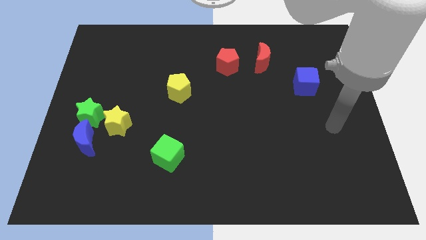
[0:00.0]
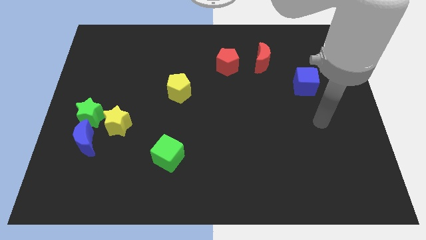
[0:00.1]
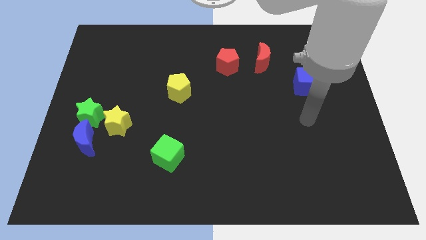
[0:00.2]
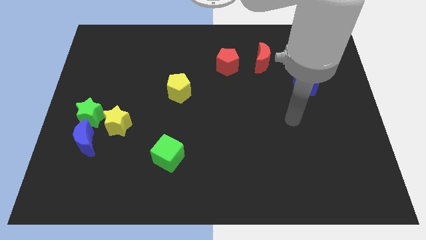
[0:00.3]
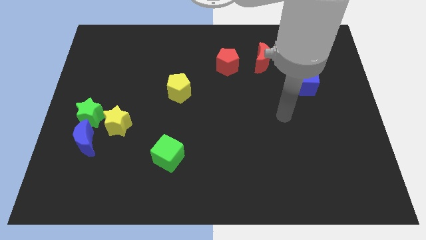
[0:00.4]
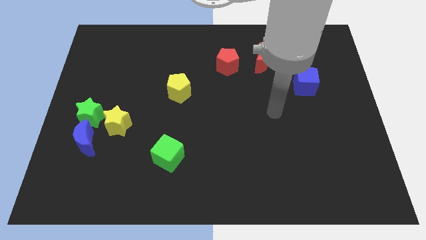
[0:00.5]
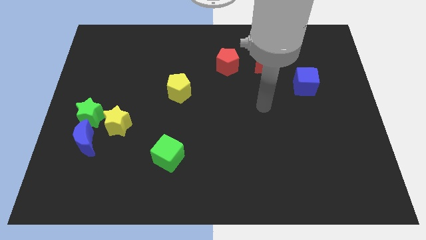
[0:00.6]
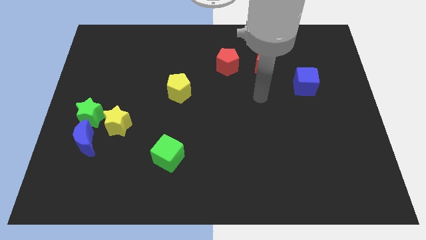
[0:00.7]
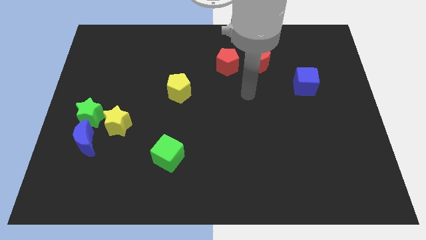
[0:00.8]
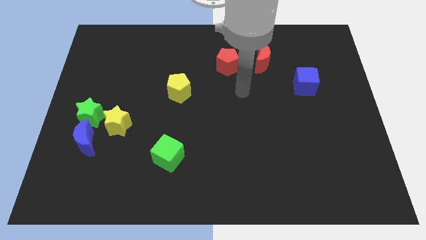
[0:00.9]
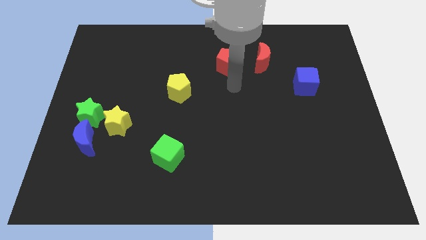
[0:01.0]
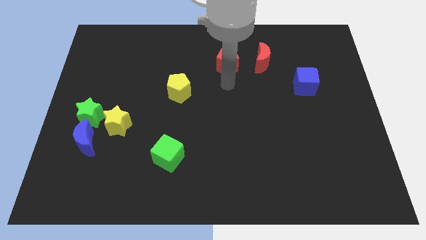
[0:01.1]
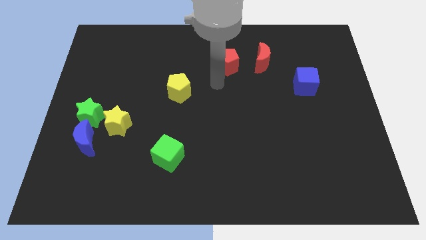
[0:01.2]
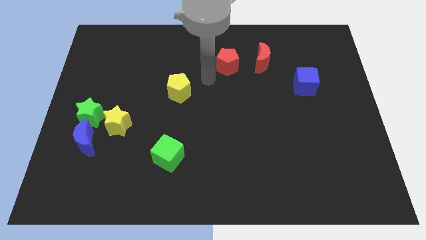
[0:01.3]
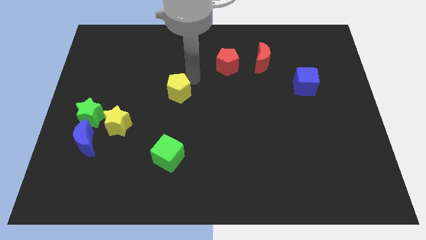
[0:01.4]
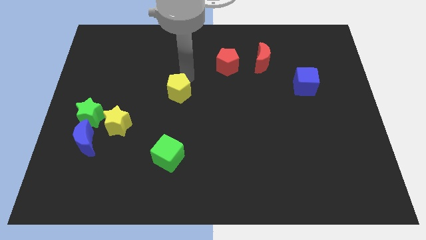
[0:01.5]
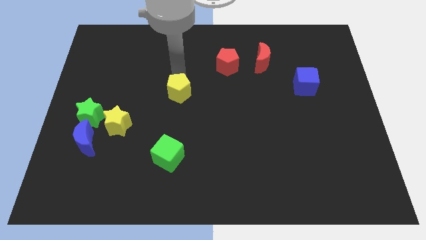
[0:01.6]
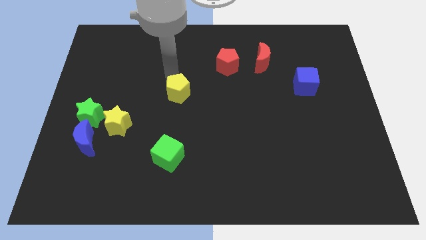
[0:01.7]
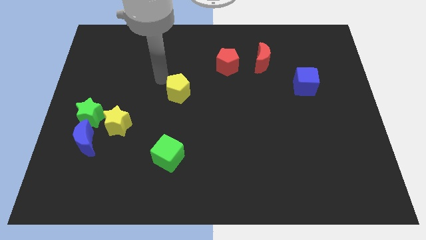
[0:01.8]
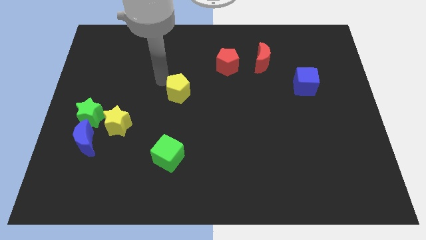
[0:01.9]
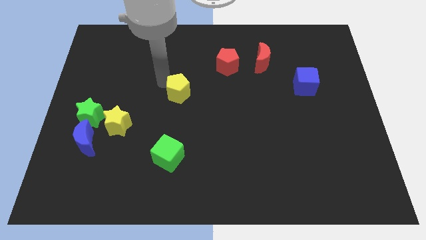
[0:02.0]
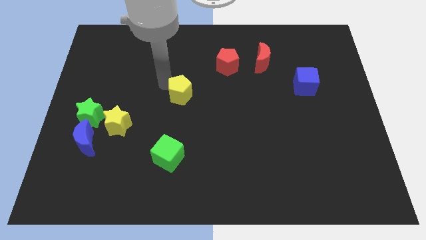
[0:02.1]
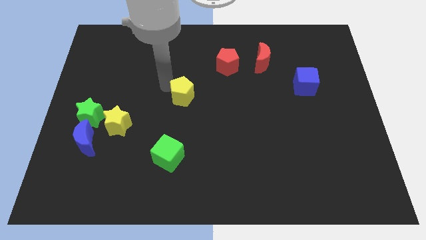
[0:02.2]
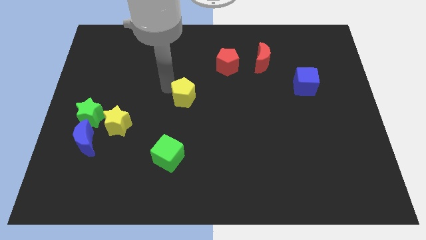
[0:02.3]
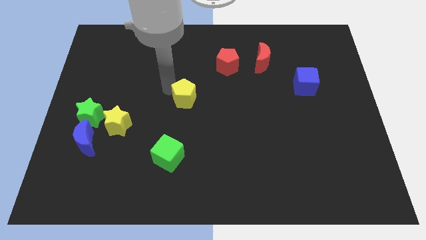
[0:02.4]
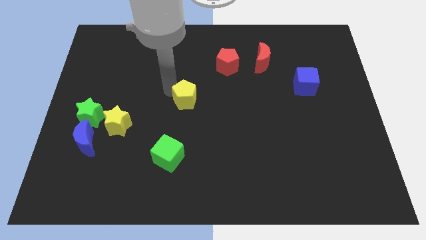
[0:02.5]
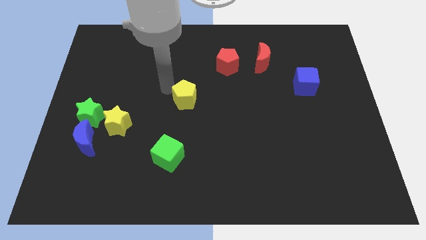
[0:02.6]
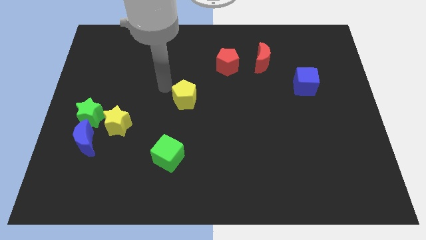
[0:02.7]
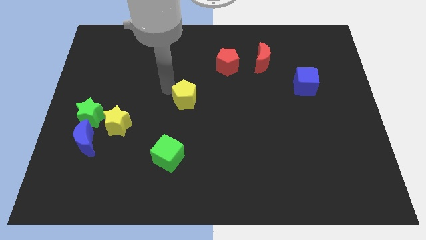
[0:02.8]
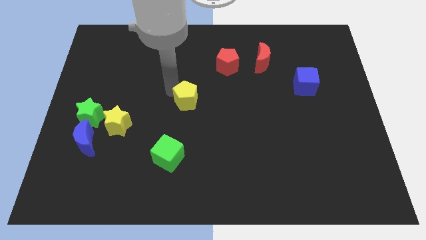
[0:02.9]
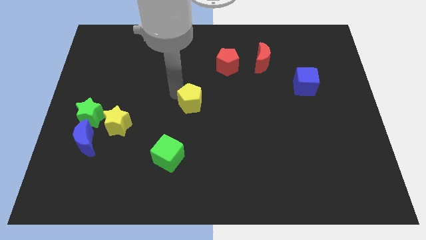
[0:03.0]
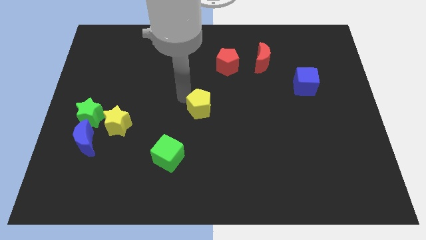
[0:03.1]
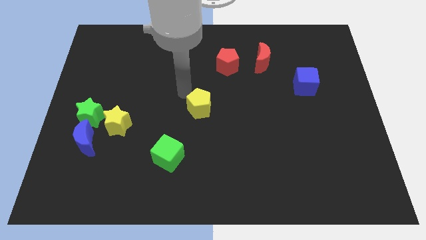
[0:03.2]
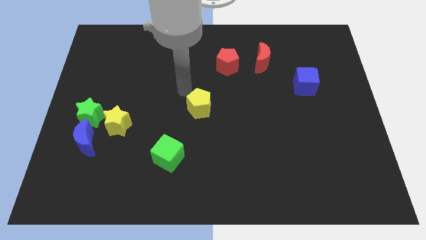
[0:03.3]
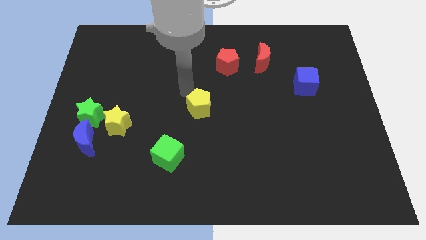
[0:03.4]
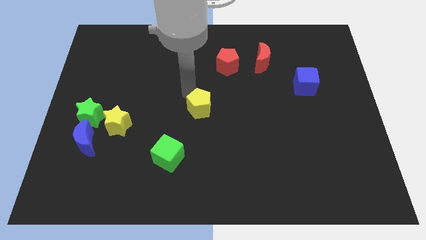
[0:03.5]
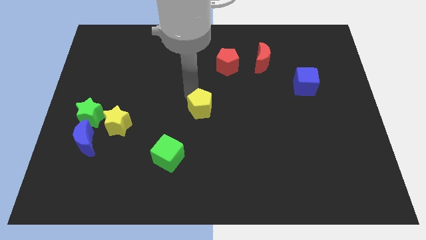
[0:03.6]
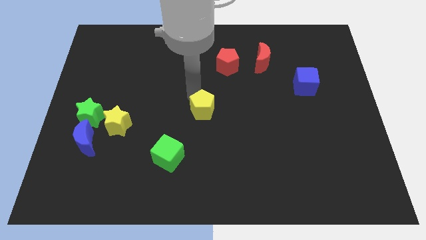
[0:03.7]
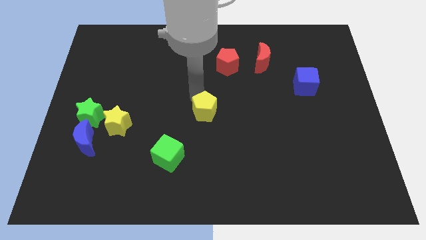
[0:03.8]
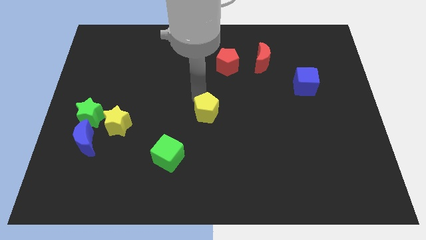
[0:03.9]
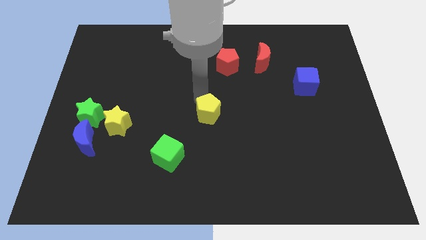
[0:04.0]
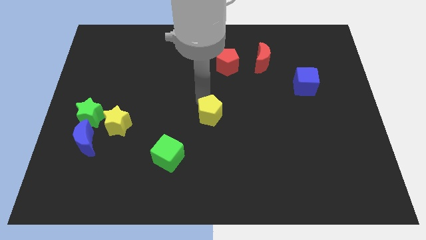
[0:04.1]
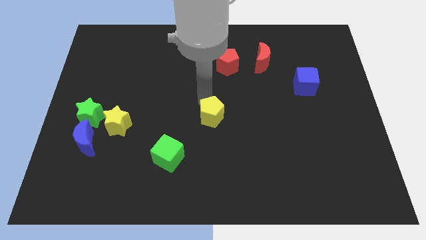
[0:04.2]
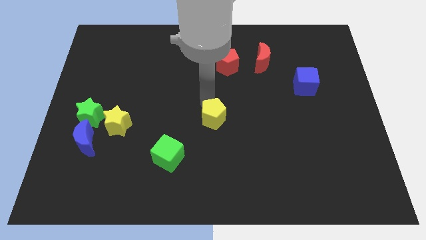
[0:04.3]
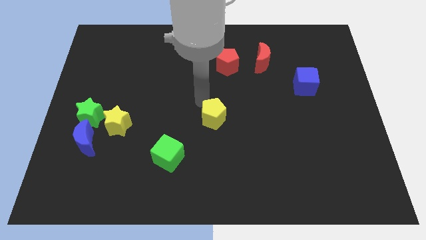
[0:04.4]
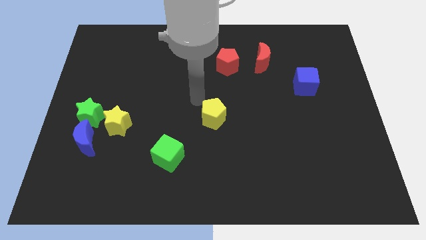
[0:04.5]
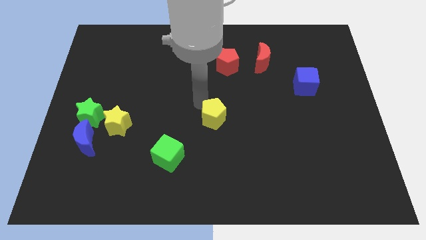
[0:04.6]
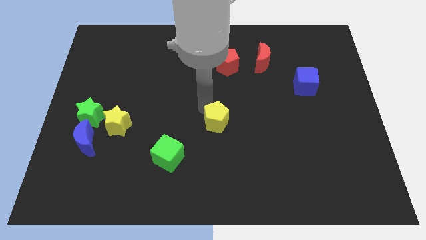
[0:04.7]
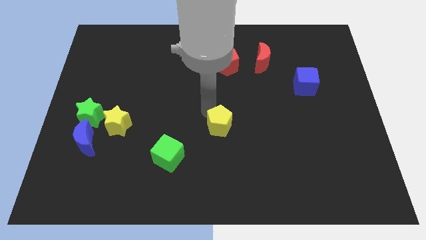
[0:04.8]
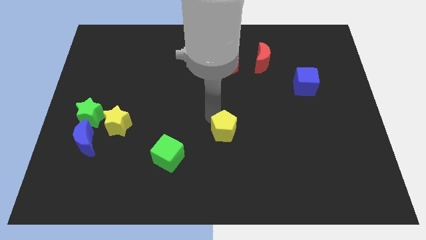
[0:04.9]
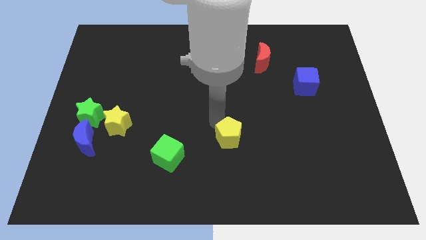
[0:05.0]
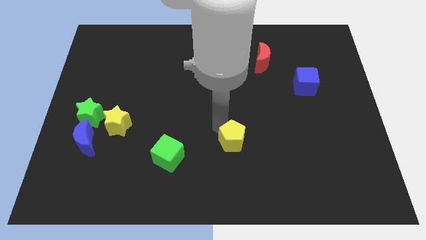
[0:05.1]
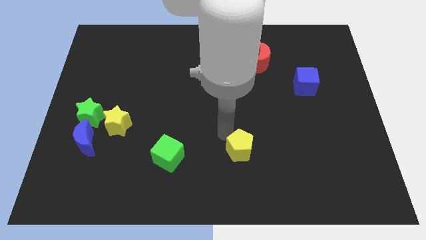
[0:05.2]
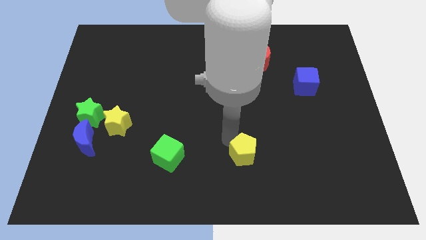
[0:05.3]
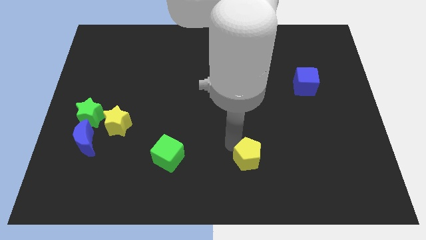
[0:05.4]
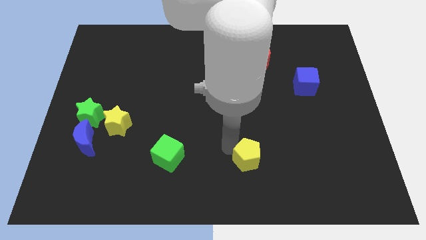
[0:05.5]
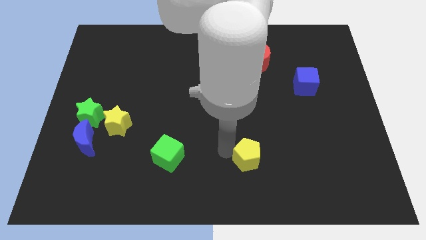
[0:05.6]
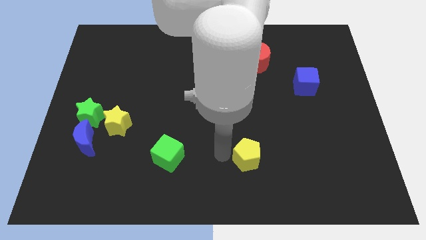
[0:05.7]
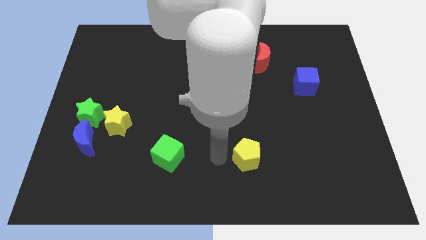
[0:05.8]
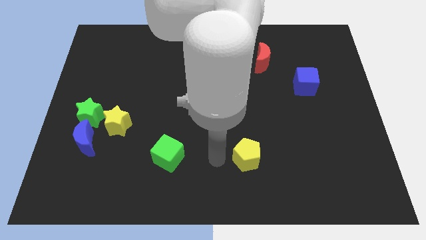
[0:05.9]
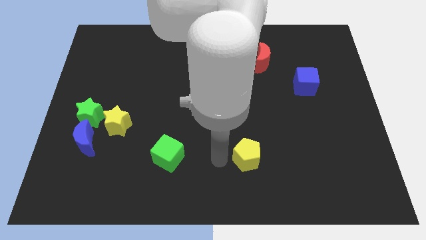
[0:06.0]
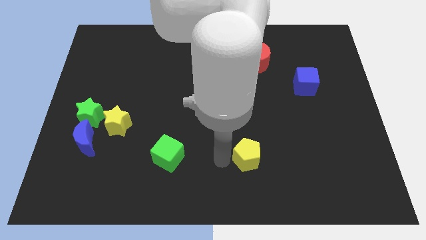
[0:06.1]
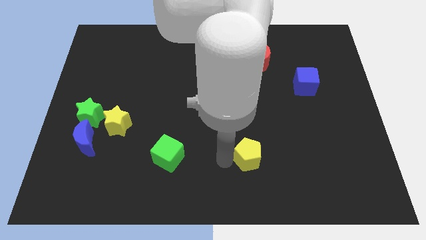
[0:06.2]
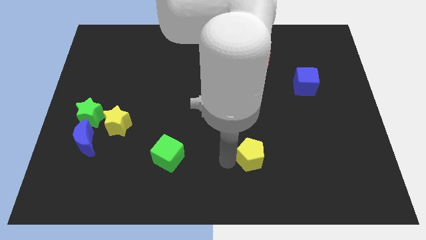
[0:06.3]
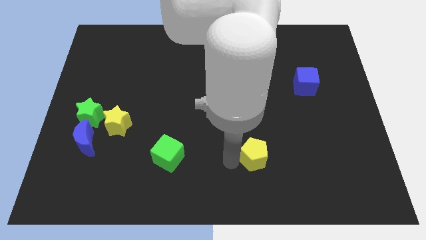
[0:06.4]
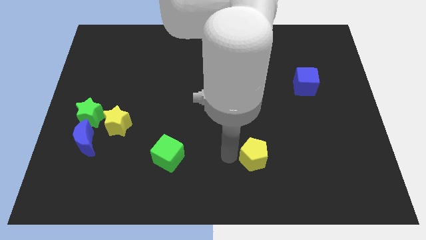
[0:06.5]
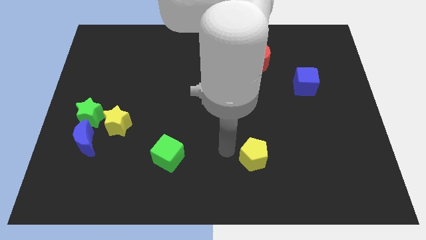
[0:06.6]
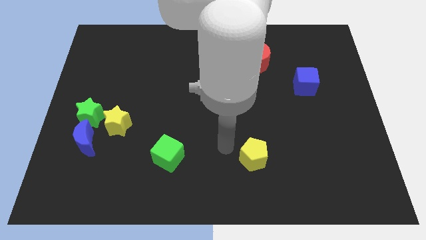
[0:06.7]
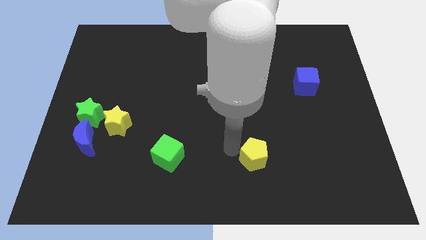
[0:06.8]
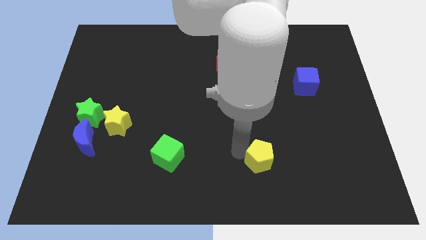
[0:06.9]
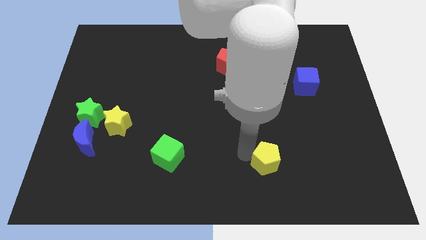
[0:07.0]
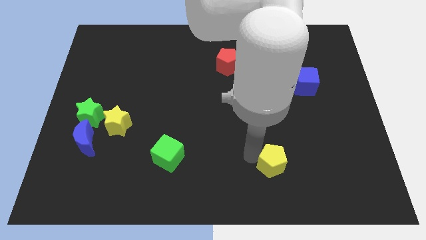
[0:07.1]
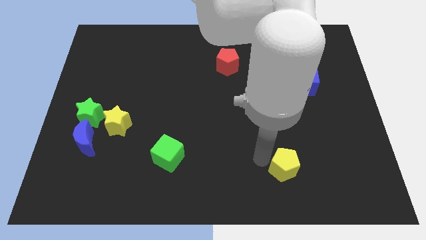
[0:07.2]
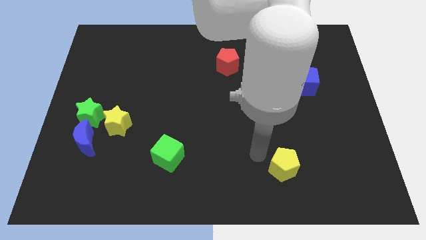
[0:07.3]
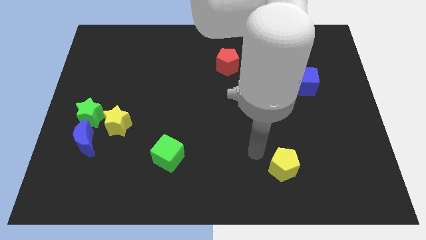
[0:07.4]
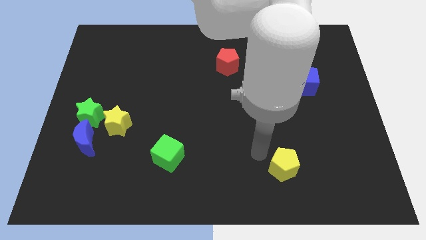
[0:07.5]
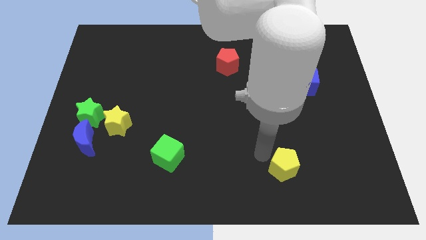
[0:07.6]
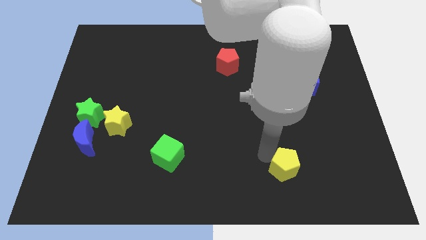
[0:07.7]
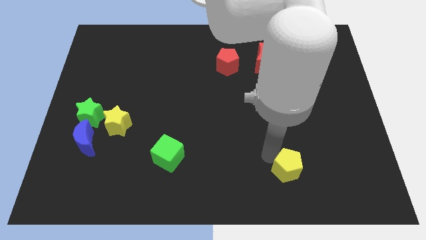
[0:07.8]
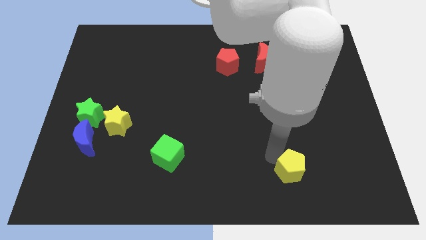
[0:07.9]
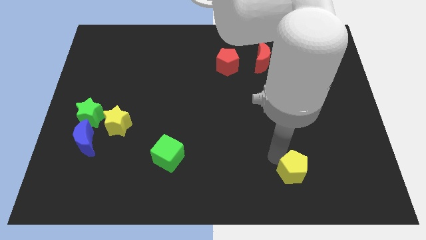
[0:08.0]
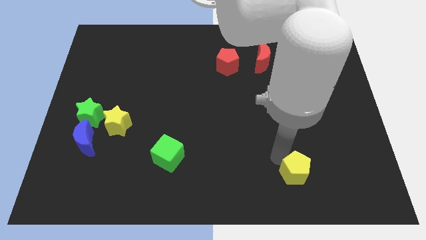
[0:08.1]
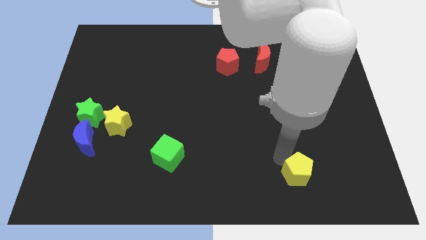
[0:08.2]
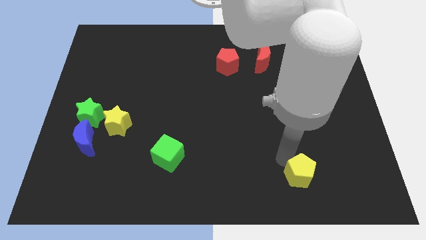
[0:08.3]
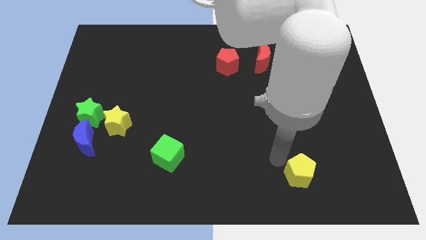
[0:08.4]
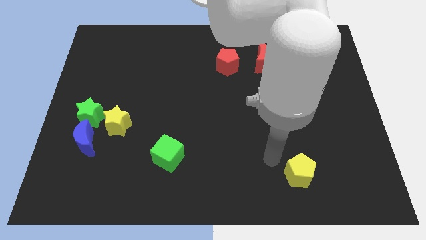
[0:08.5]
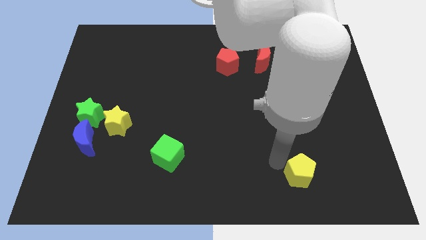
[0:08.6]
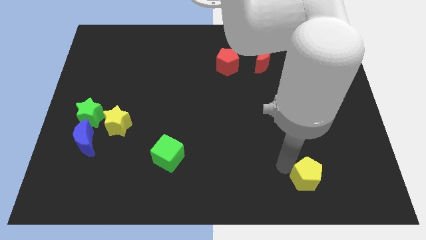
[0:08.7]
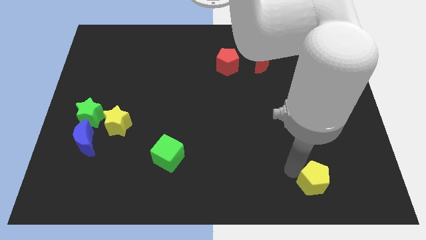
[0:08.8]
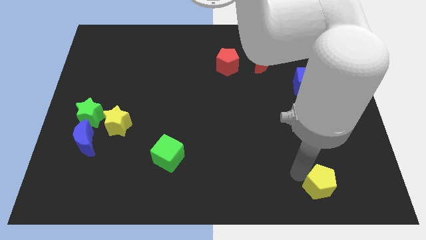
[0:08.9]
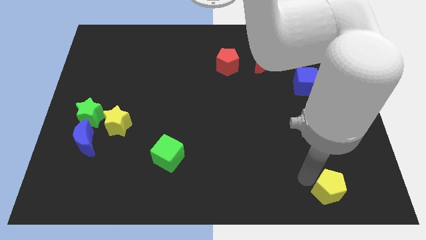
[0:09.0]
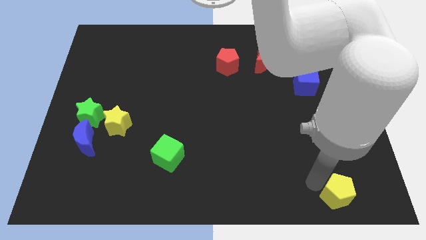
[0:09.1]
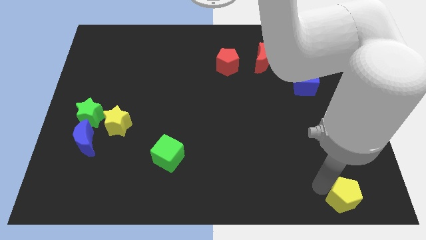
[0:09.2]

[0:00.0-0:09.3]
move the yellow pentagon to the bottom right
